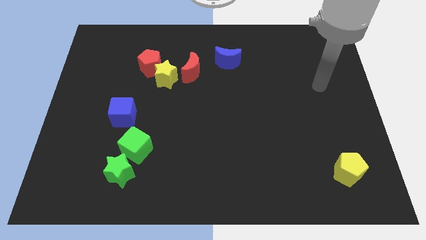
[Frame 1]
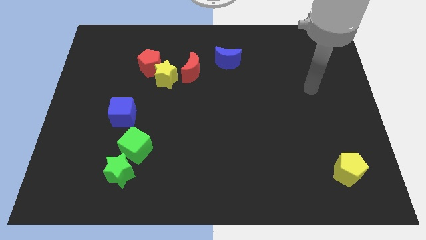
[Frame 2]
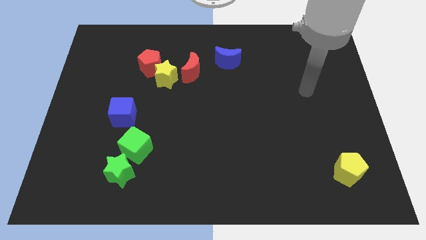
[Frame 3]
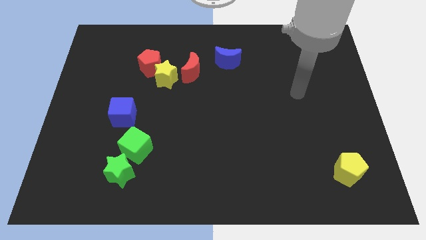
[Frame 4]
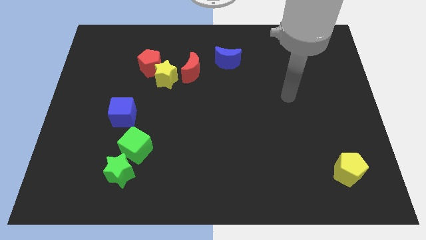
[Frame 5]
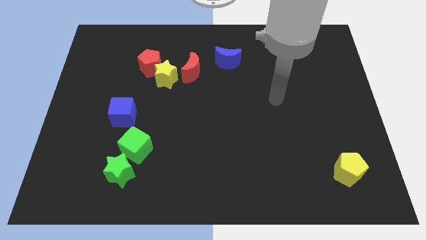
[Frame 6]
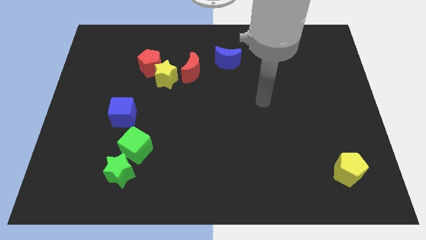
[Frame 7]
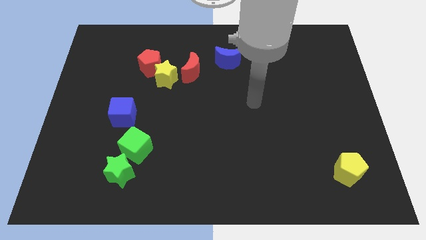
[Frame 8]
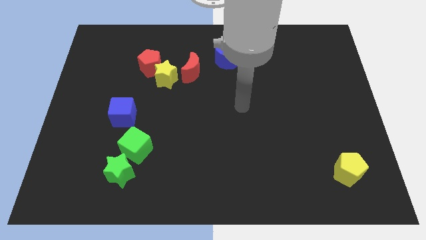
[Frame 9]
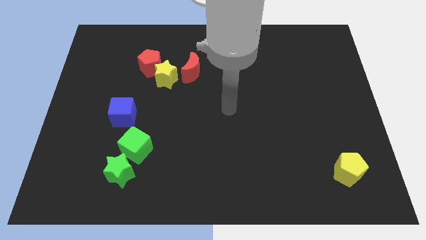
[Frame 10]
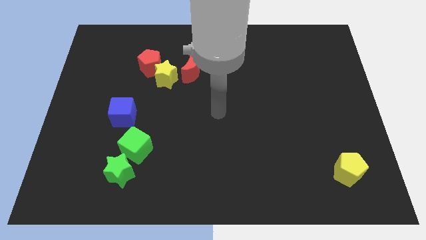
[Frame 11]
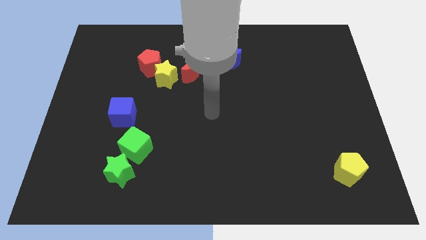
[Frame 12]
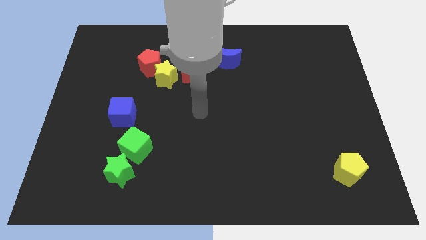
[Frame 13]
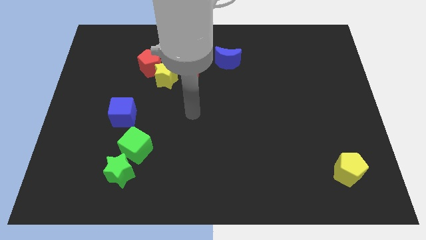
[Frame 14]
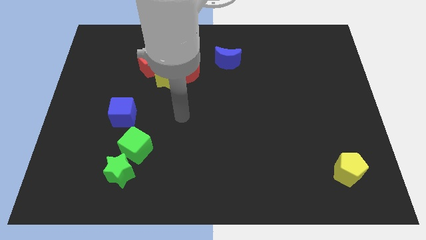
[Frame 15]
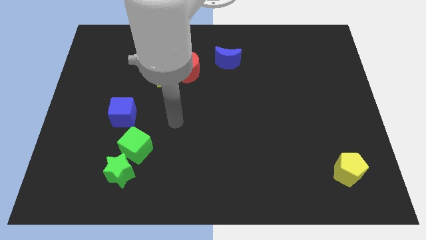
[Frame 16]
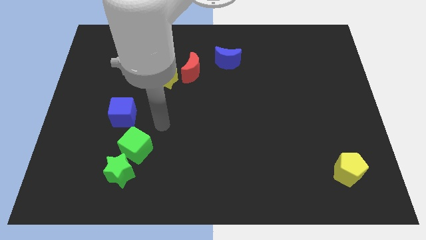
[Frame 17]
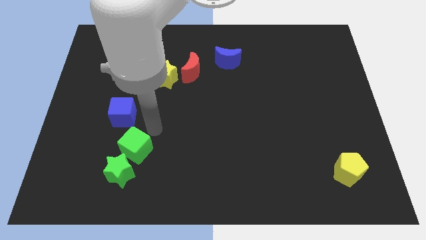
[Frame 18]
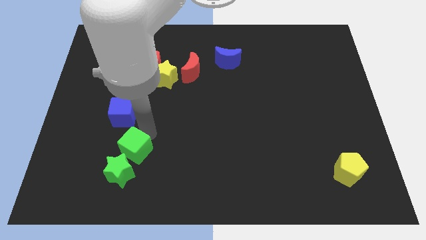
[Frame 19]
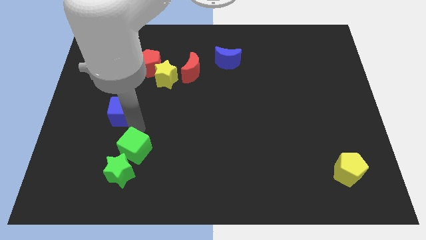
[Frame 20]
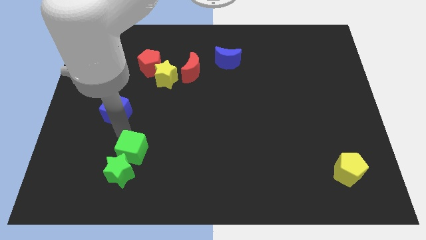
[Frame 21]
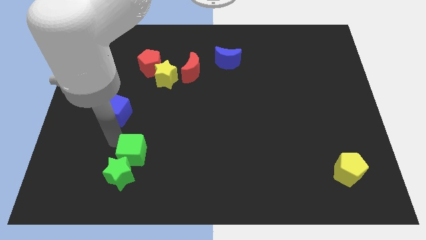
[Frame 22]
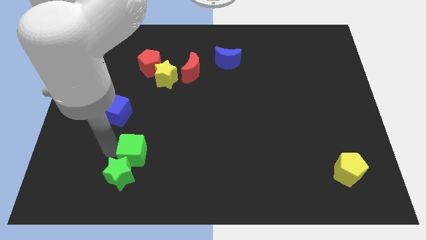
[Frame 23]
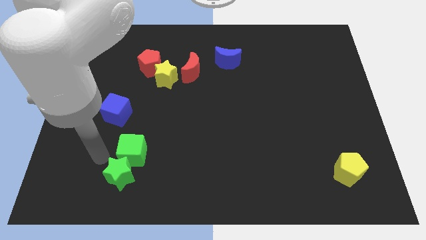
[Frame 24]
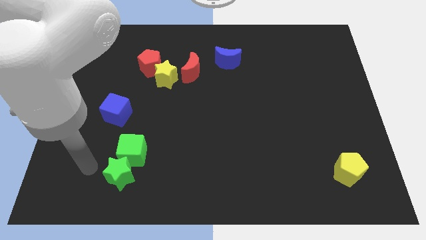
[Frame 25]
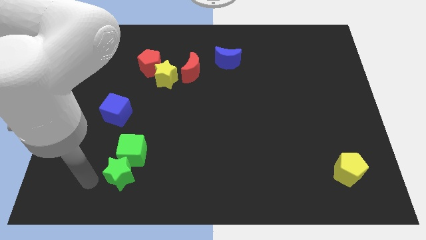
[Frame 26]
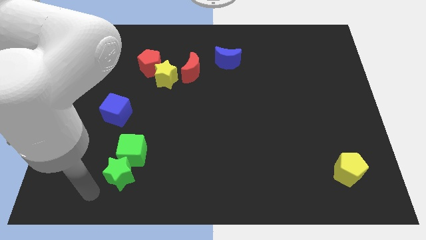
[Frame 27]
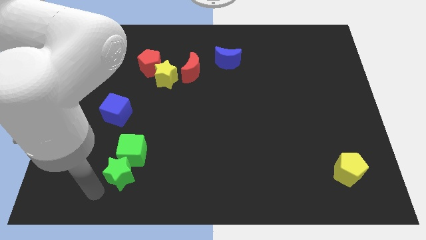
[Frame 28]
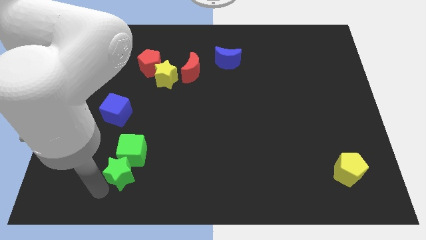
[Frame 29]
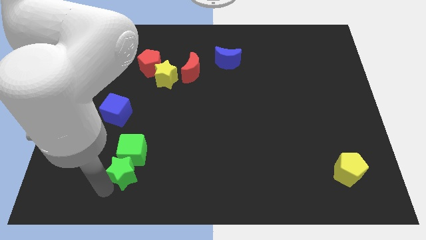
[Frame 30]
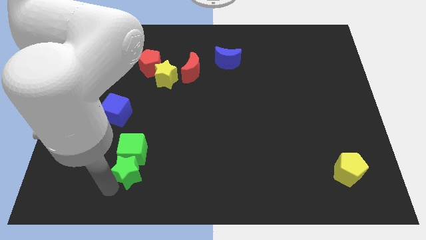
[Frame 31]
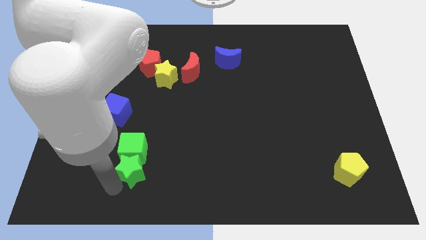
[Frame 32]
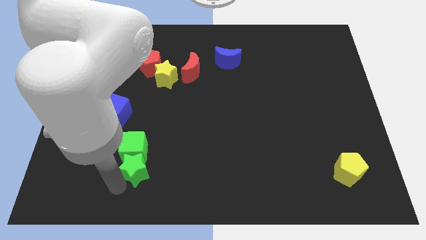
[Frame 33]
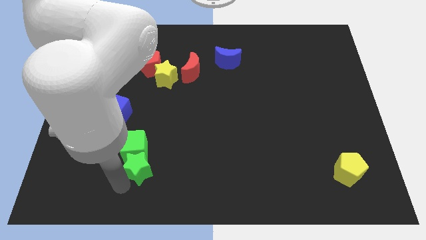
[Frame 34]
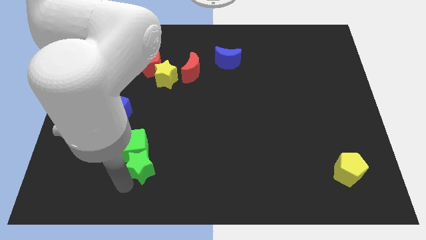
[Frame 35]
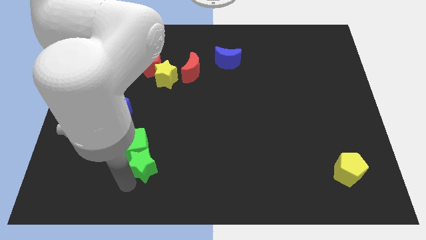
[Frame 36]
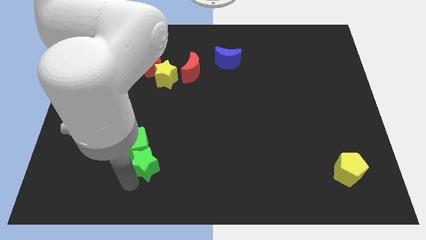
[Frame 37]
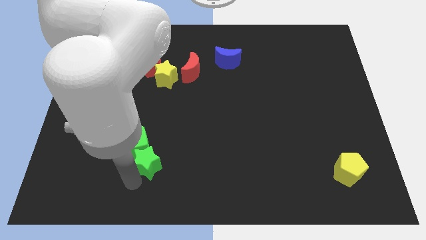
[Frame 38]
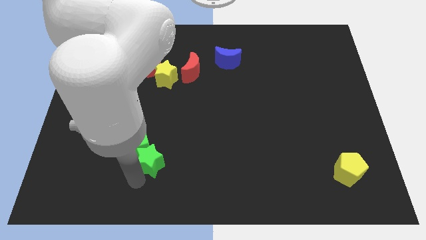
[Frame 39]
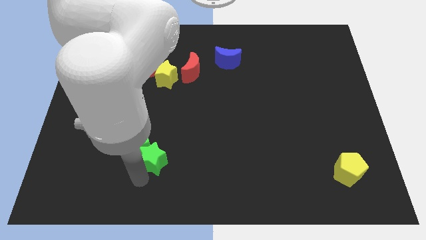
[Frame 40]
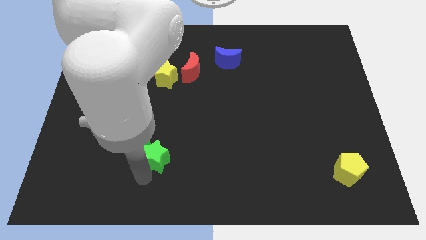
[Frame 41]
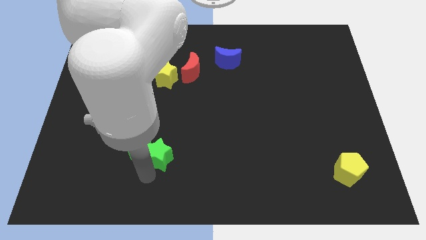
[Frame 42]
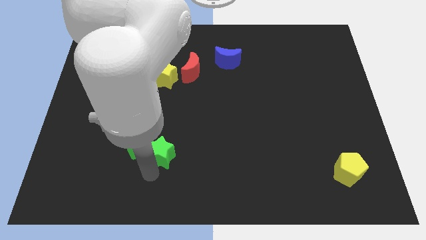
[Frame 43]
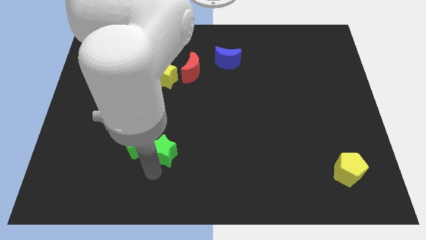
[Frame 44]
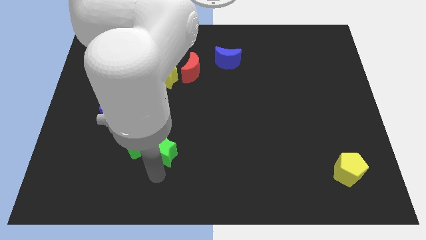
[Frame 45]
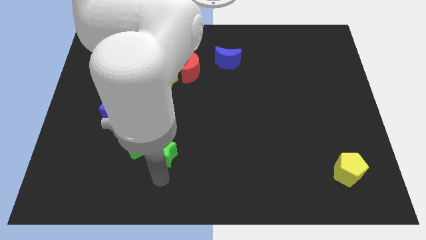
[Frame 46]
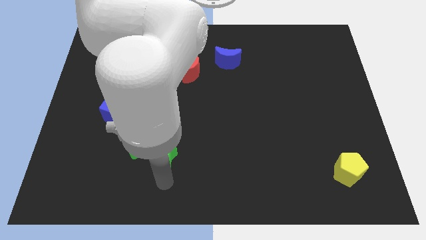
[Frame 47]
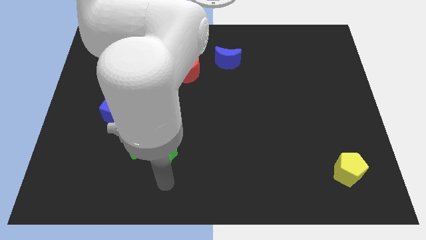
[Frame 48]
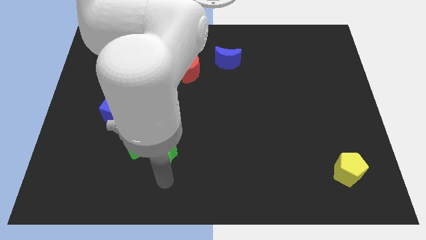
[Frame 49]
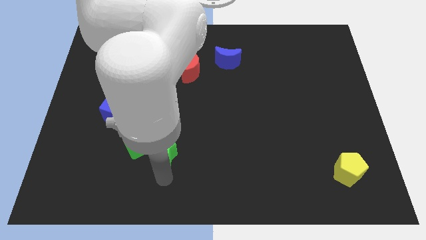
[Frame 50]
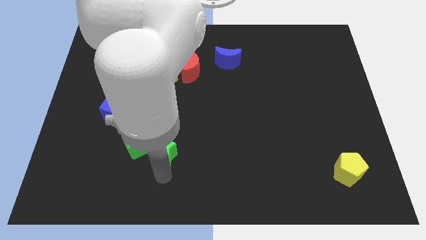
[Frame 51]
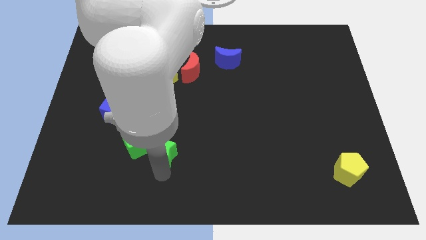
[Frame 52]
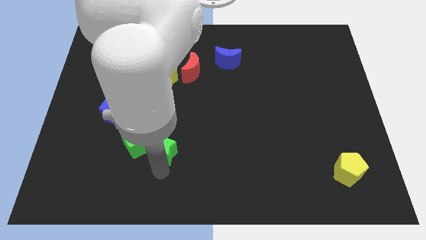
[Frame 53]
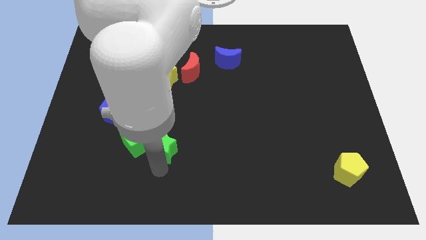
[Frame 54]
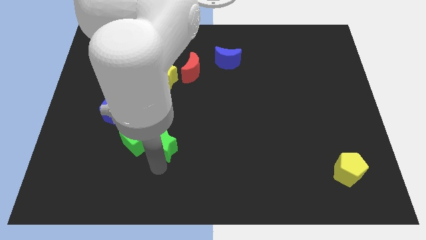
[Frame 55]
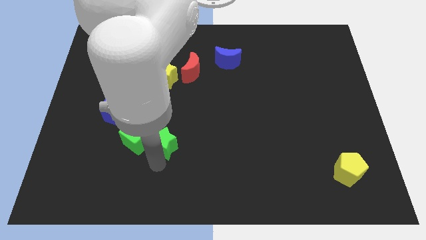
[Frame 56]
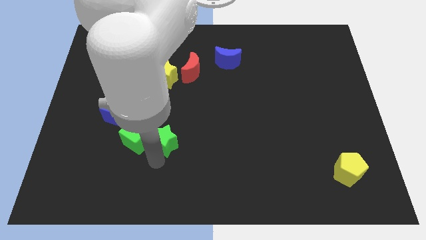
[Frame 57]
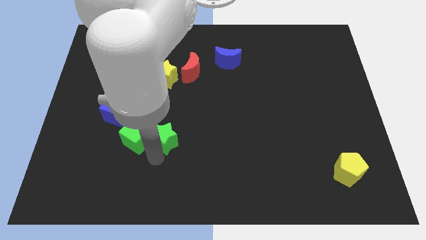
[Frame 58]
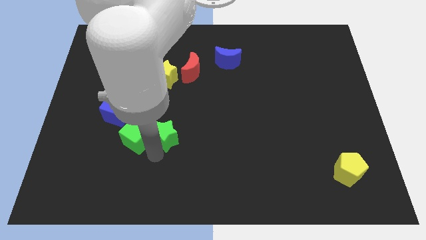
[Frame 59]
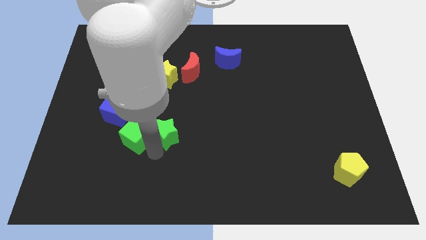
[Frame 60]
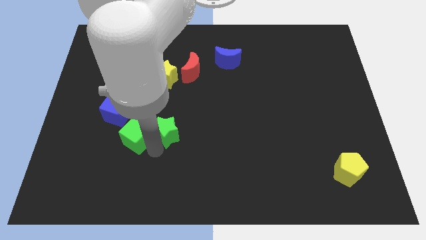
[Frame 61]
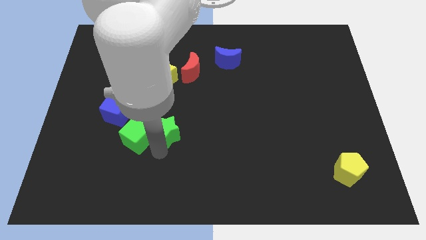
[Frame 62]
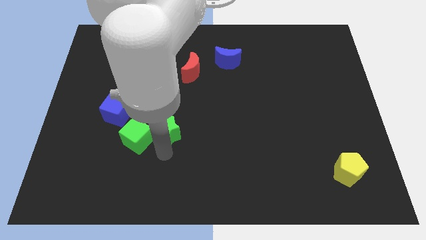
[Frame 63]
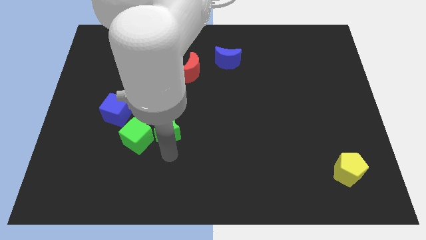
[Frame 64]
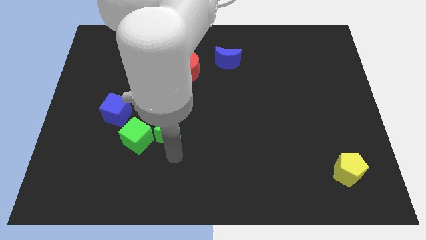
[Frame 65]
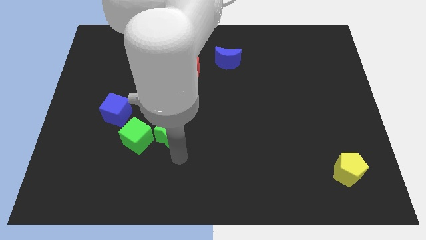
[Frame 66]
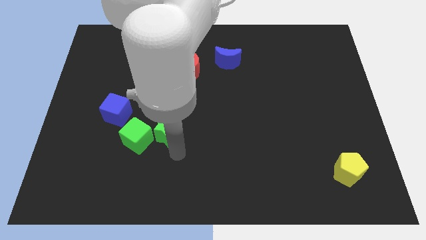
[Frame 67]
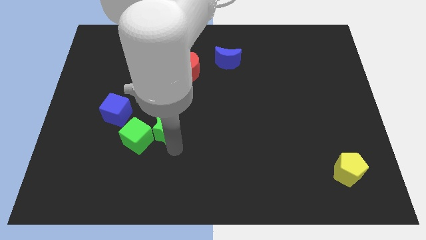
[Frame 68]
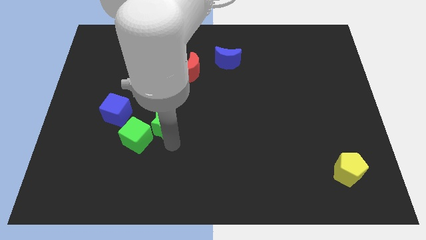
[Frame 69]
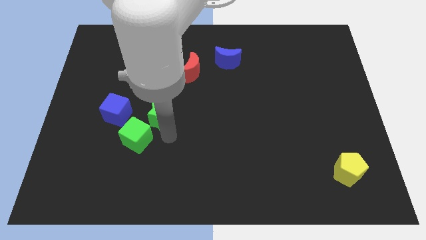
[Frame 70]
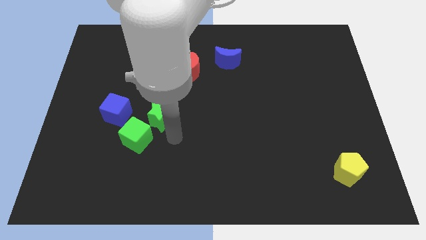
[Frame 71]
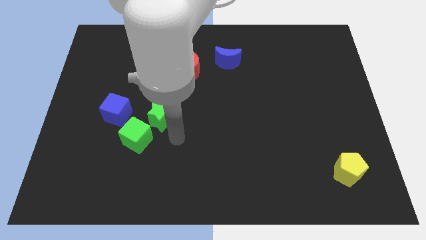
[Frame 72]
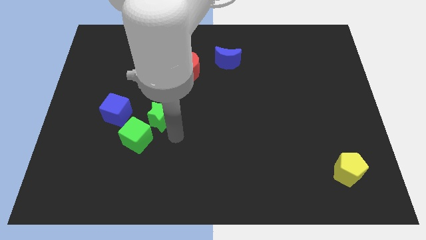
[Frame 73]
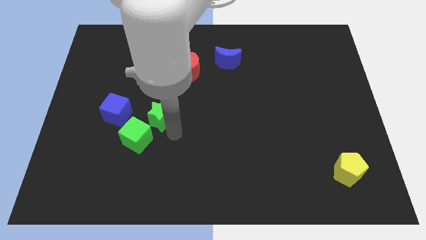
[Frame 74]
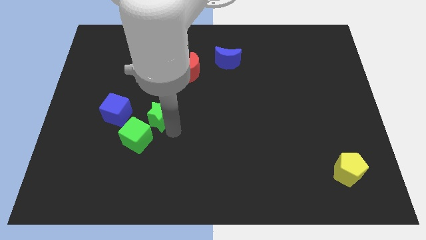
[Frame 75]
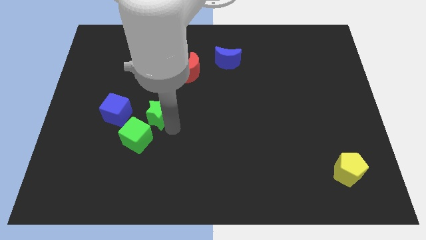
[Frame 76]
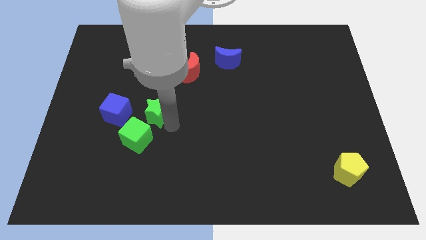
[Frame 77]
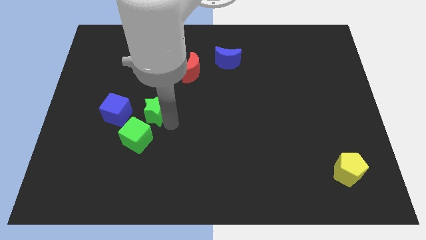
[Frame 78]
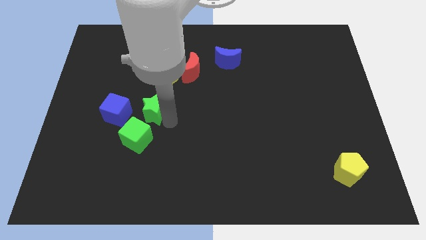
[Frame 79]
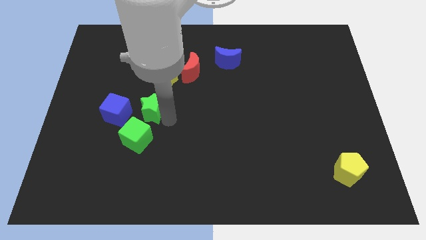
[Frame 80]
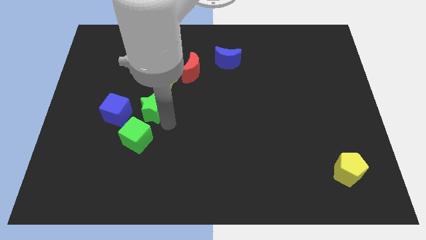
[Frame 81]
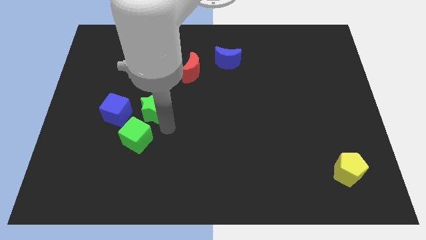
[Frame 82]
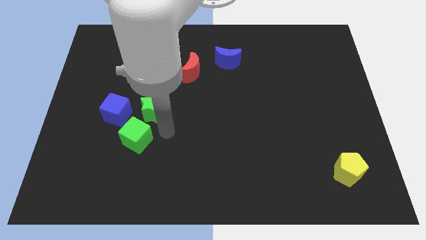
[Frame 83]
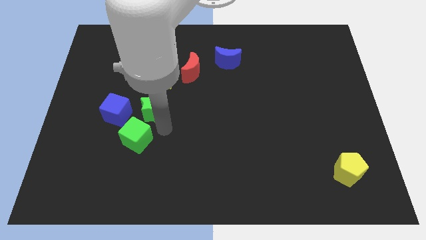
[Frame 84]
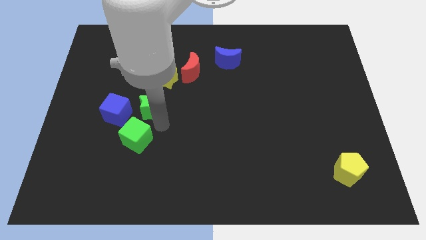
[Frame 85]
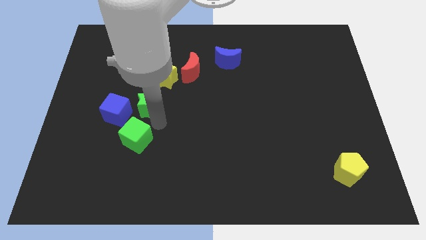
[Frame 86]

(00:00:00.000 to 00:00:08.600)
put the green star to the bottom left of the yellow star
